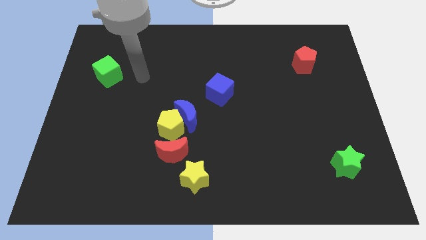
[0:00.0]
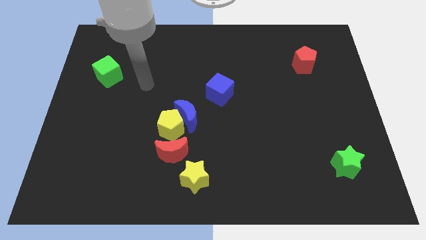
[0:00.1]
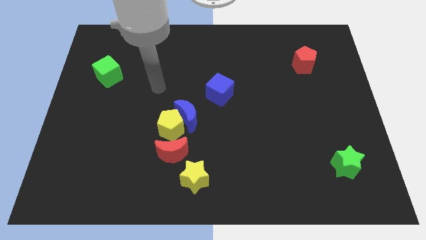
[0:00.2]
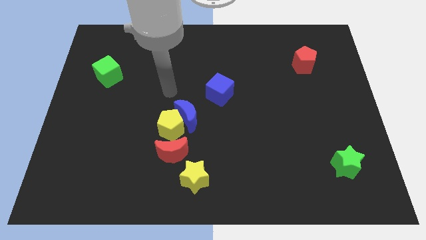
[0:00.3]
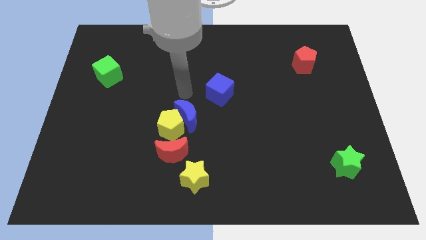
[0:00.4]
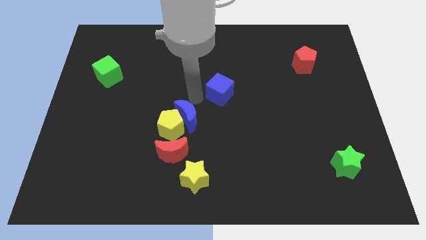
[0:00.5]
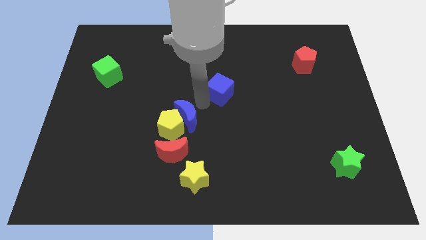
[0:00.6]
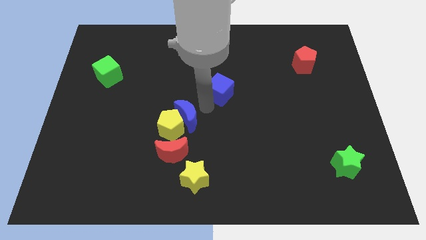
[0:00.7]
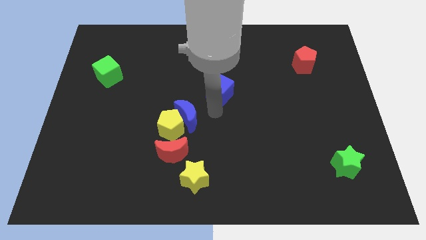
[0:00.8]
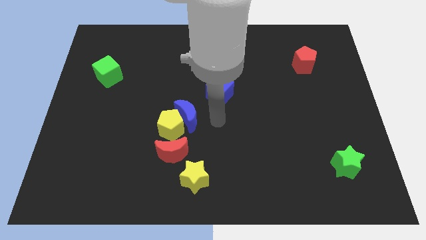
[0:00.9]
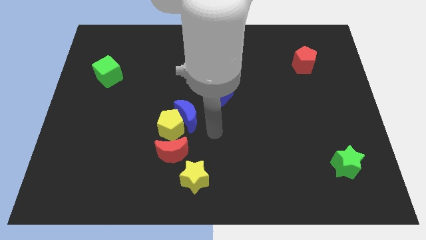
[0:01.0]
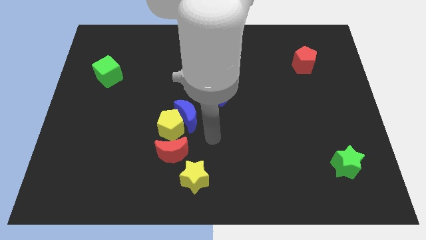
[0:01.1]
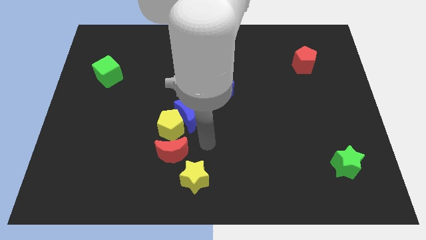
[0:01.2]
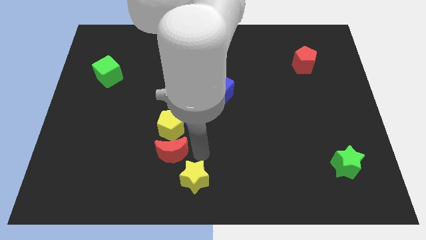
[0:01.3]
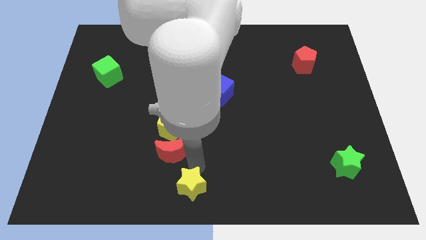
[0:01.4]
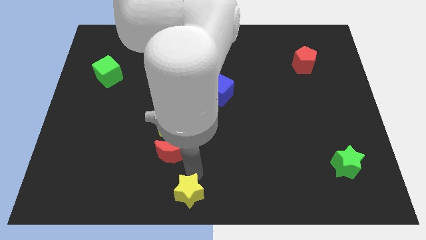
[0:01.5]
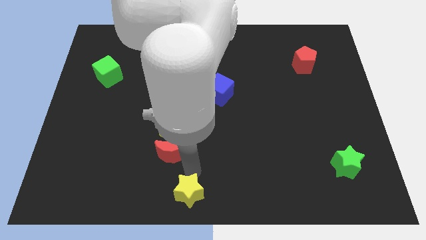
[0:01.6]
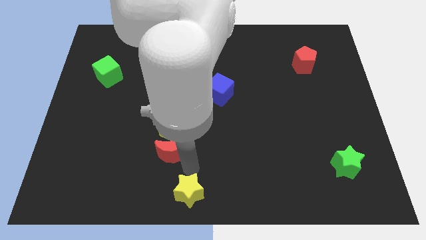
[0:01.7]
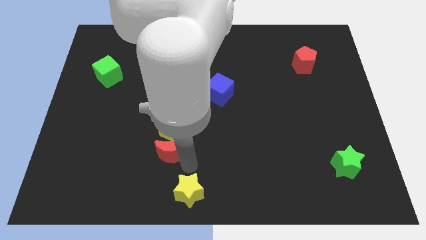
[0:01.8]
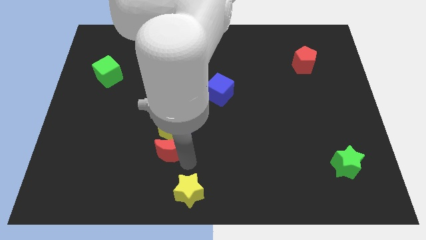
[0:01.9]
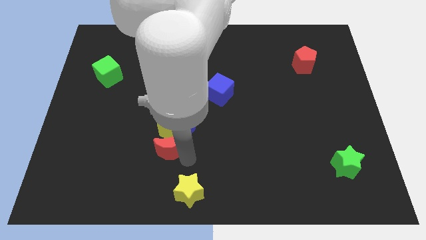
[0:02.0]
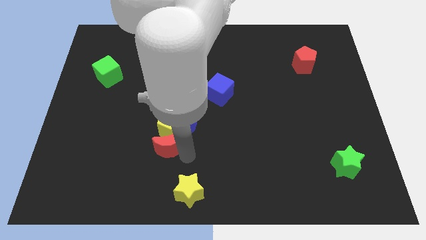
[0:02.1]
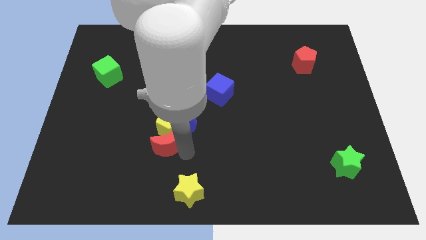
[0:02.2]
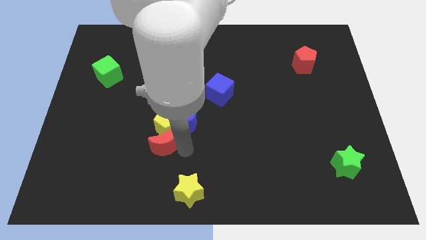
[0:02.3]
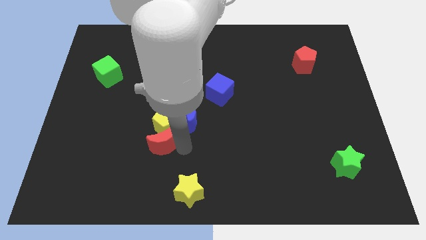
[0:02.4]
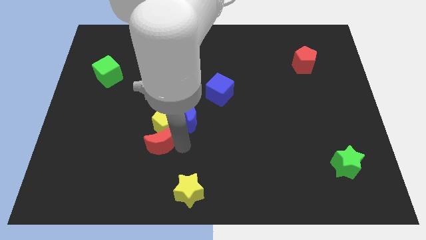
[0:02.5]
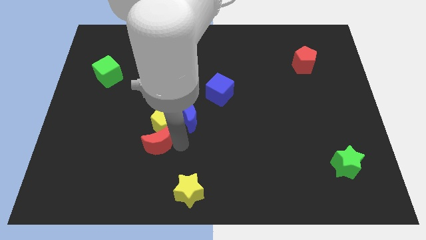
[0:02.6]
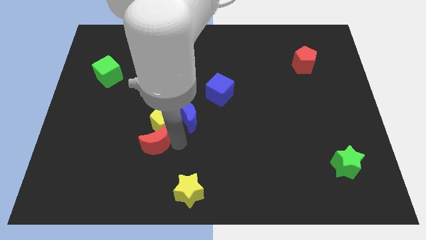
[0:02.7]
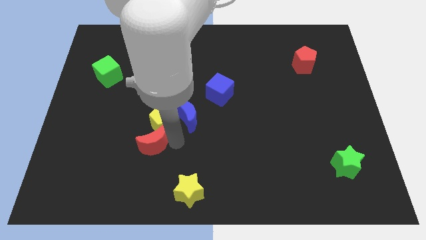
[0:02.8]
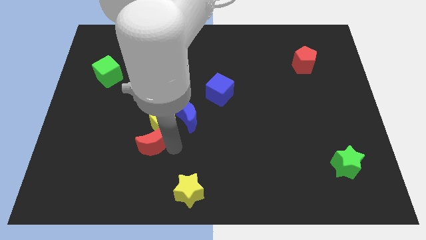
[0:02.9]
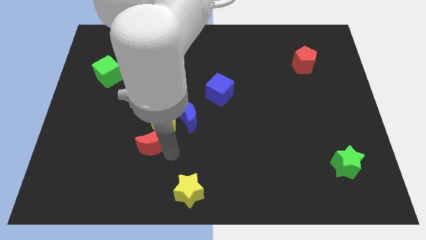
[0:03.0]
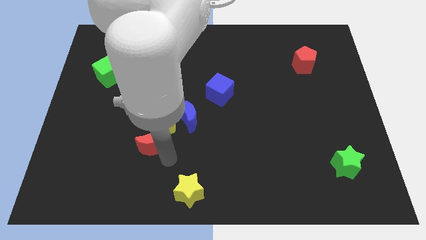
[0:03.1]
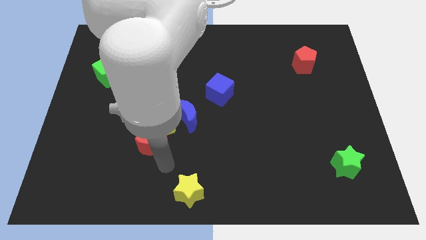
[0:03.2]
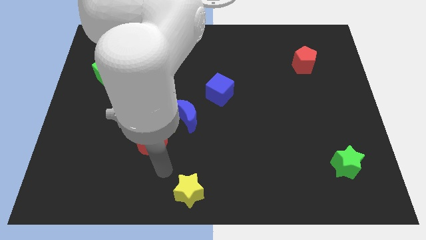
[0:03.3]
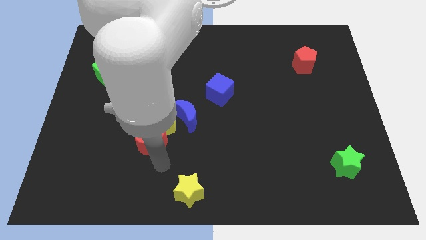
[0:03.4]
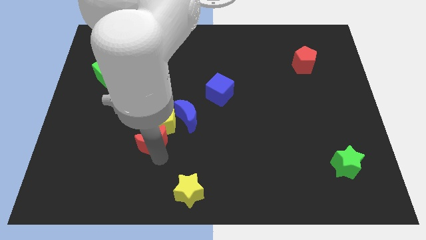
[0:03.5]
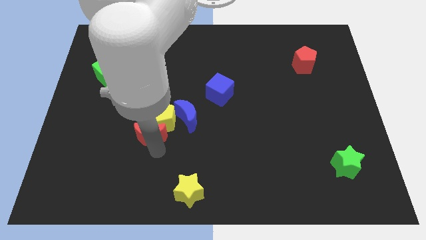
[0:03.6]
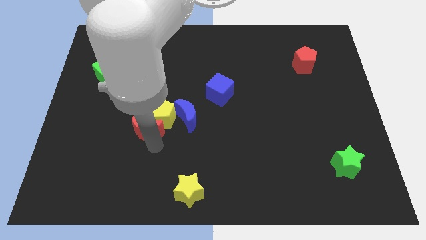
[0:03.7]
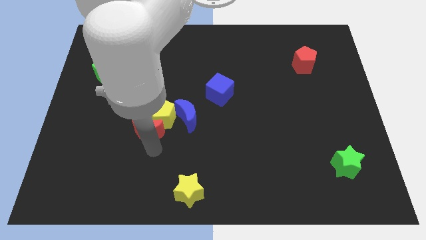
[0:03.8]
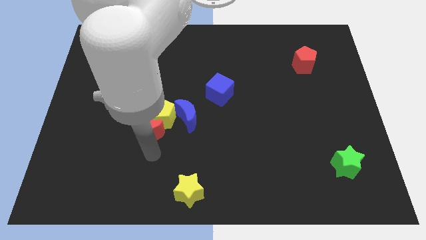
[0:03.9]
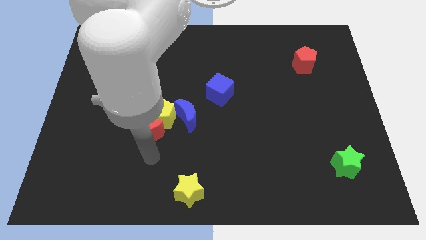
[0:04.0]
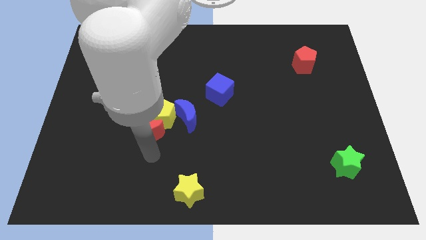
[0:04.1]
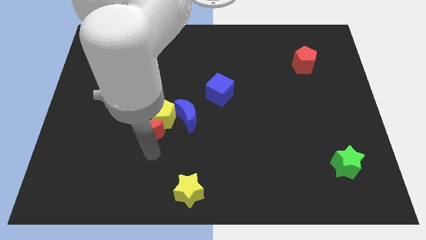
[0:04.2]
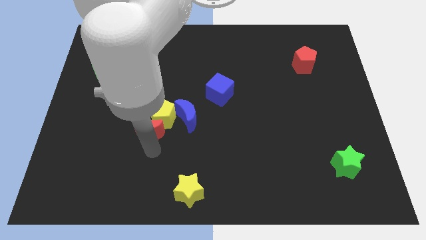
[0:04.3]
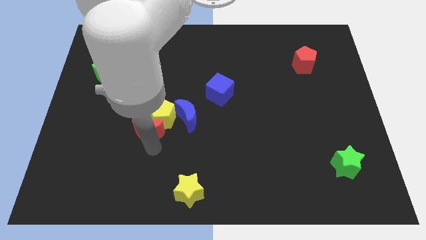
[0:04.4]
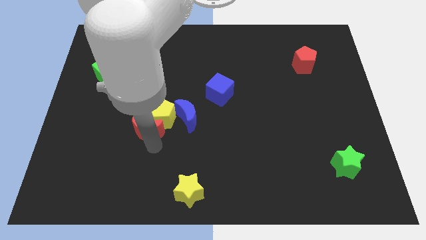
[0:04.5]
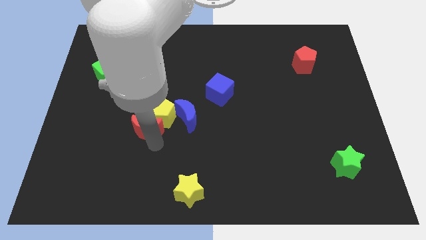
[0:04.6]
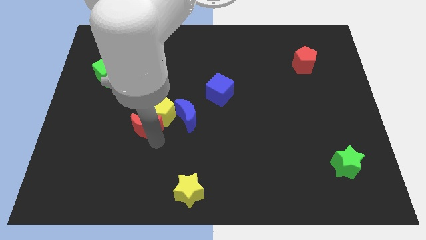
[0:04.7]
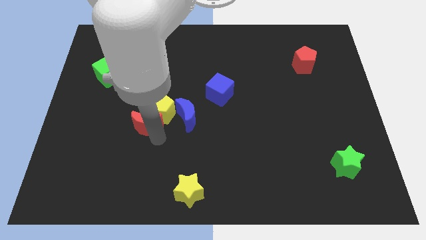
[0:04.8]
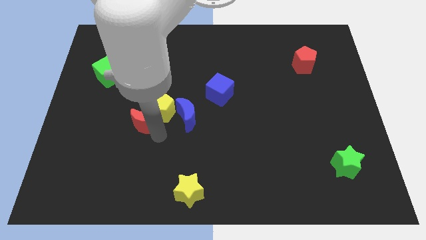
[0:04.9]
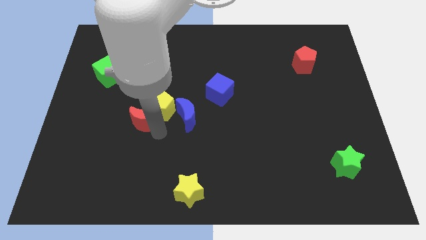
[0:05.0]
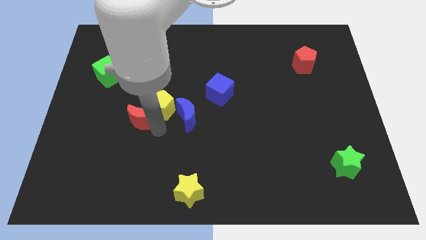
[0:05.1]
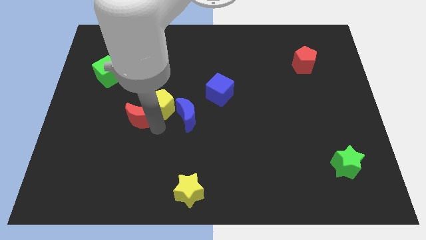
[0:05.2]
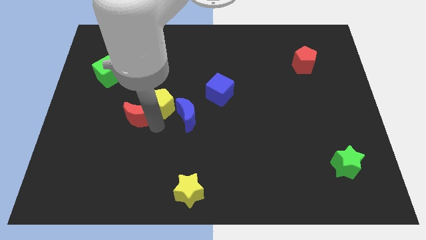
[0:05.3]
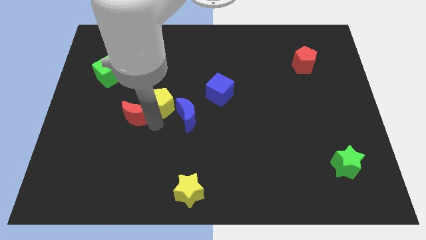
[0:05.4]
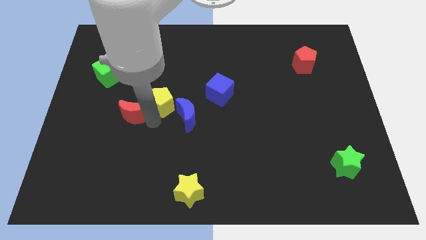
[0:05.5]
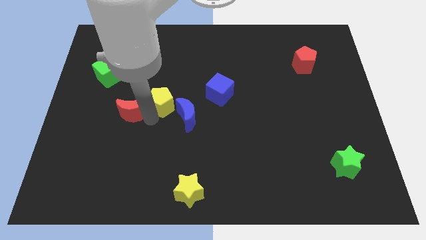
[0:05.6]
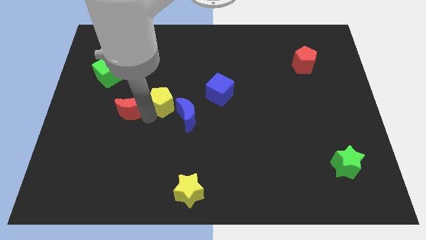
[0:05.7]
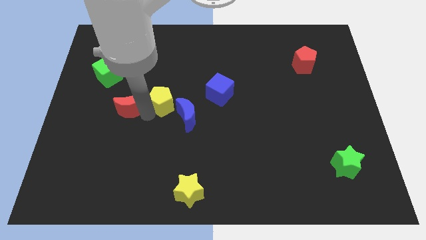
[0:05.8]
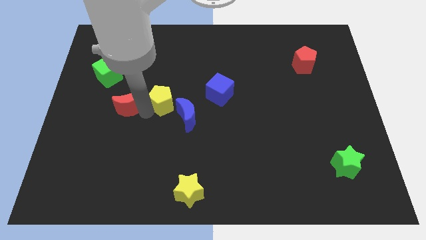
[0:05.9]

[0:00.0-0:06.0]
push the red moon to the bottom right of the green cube
